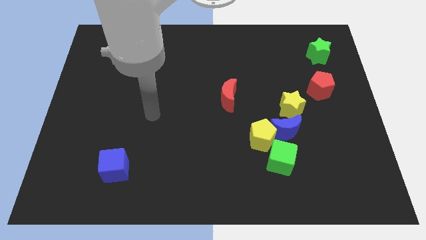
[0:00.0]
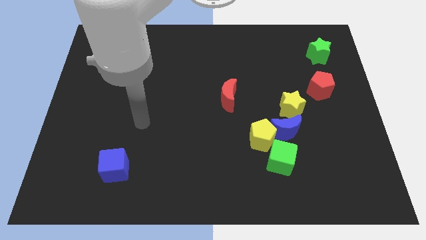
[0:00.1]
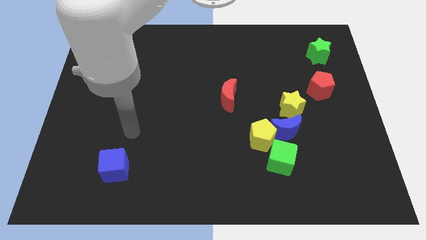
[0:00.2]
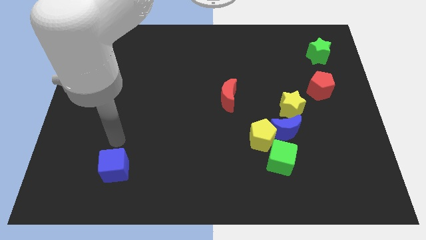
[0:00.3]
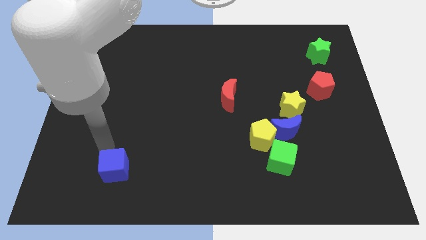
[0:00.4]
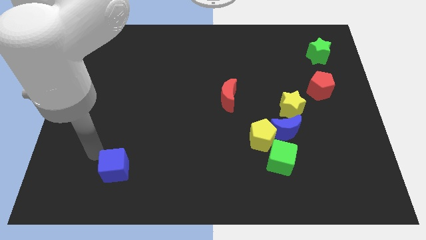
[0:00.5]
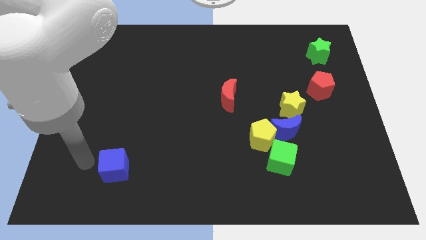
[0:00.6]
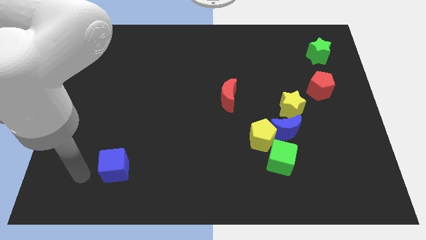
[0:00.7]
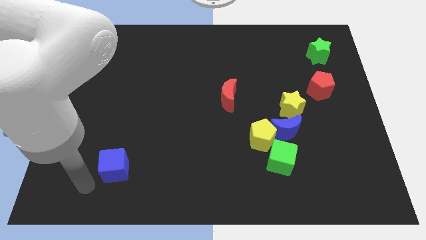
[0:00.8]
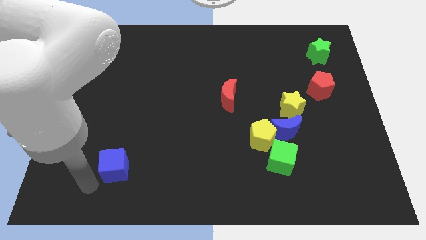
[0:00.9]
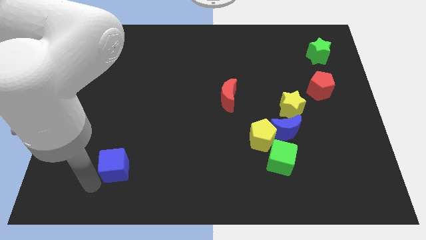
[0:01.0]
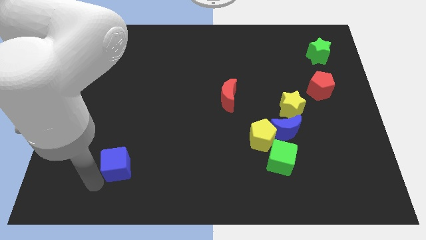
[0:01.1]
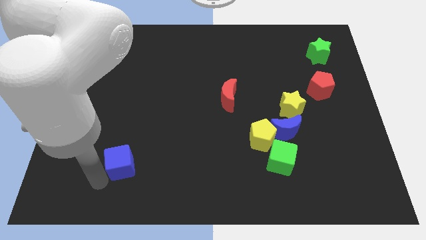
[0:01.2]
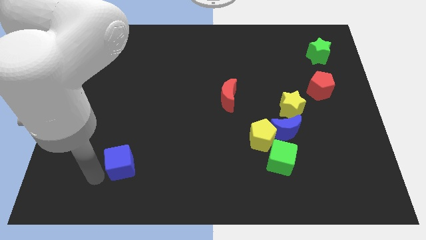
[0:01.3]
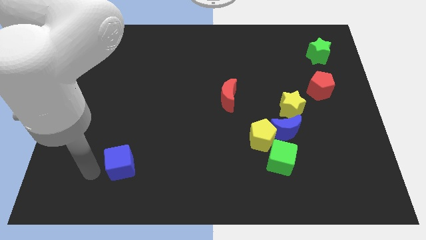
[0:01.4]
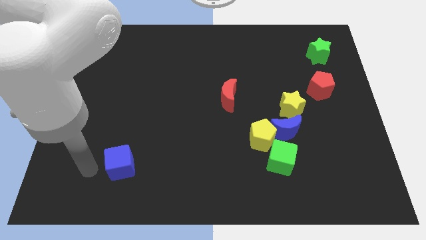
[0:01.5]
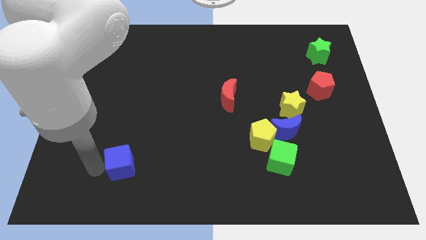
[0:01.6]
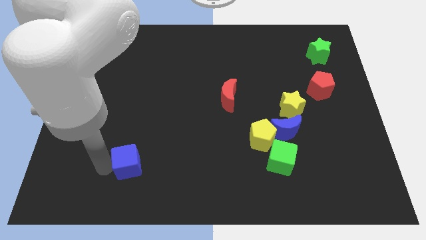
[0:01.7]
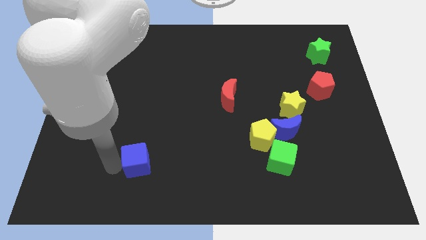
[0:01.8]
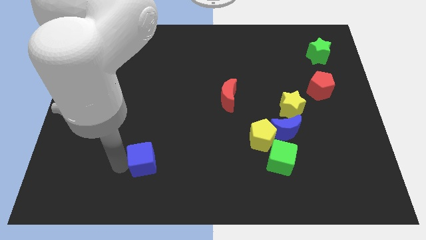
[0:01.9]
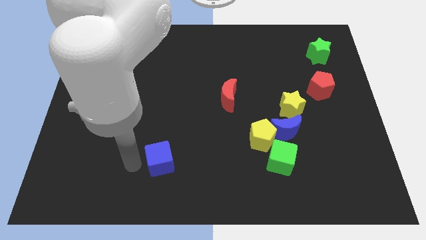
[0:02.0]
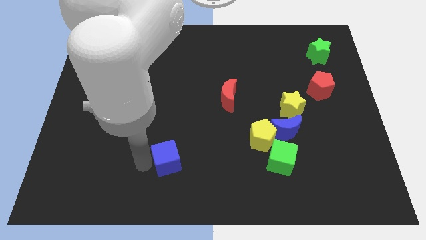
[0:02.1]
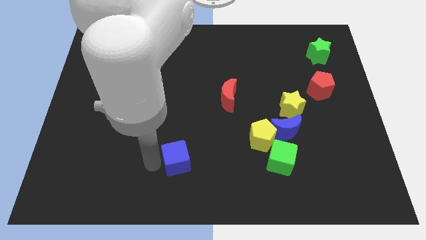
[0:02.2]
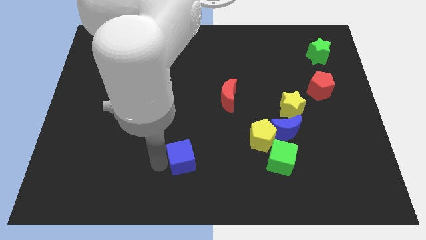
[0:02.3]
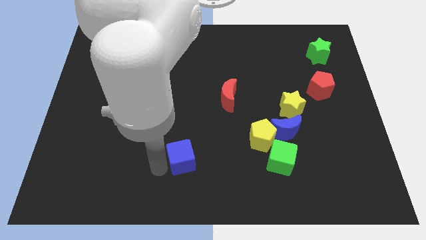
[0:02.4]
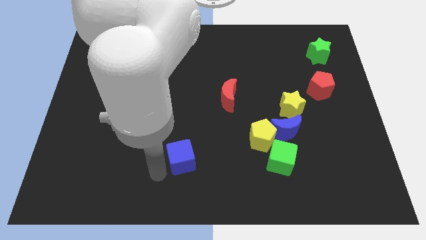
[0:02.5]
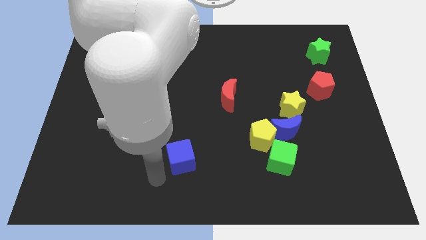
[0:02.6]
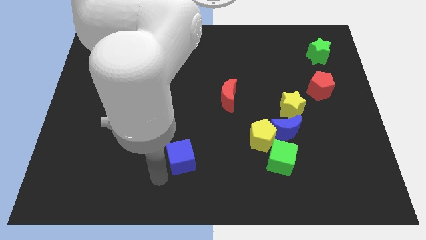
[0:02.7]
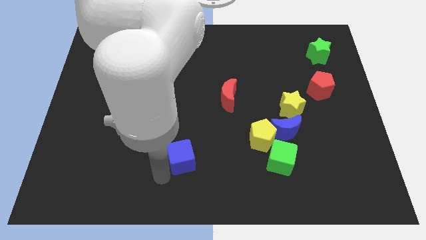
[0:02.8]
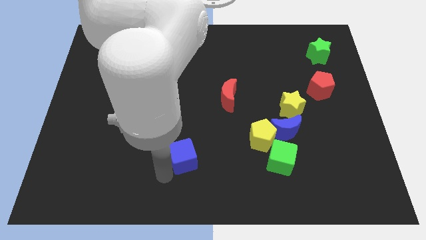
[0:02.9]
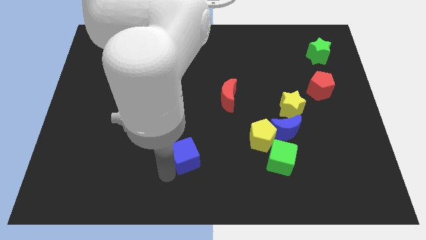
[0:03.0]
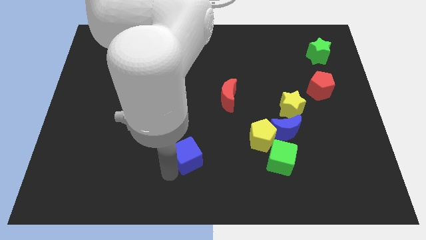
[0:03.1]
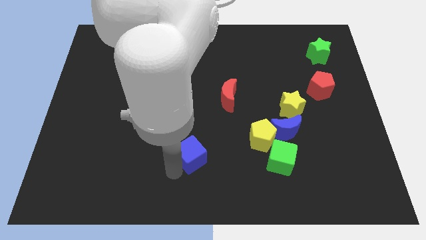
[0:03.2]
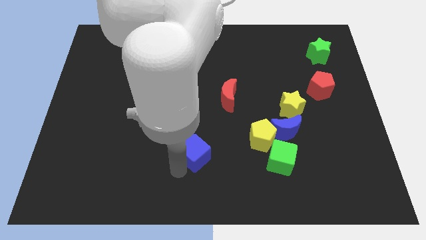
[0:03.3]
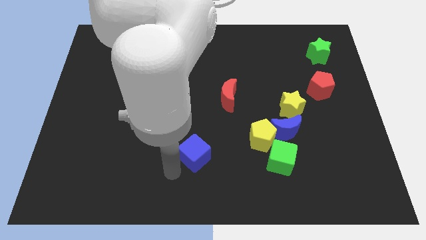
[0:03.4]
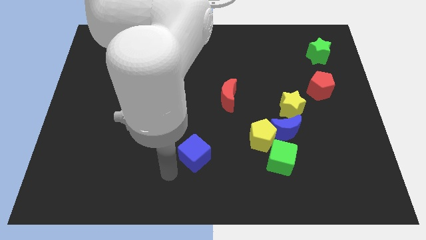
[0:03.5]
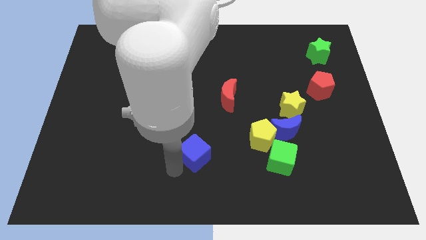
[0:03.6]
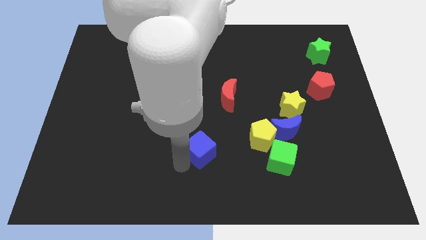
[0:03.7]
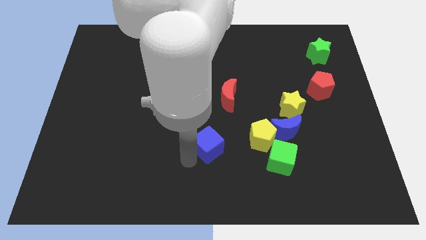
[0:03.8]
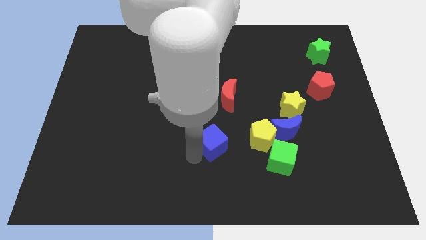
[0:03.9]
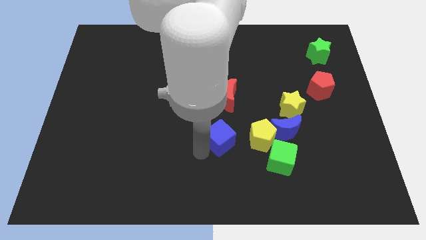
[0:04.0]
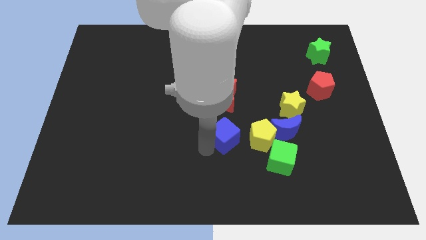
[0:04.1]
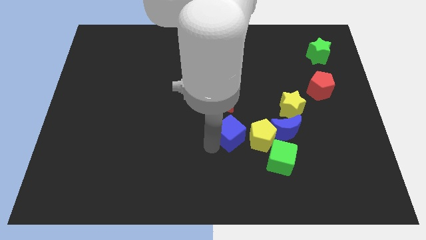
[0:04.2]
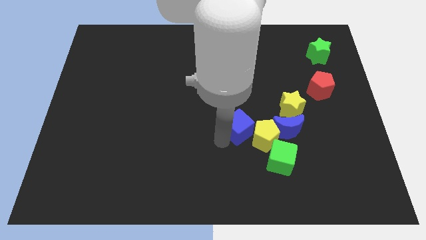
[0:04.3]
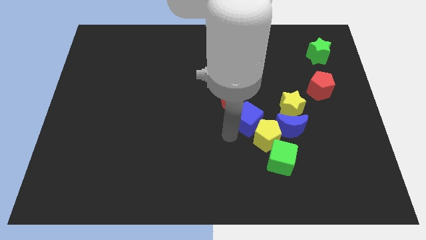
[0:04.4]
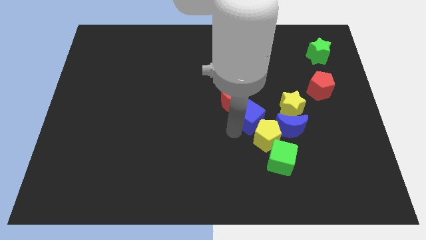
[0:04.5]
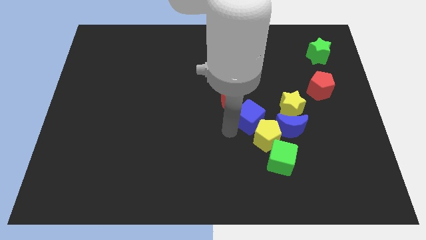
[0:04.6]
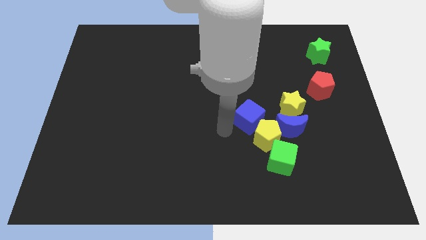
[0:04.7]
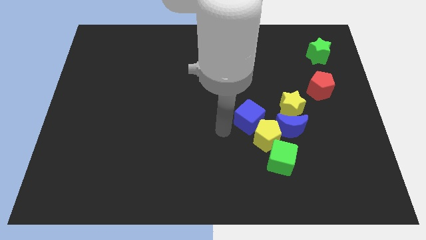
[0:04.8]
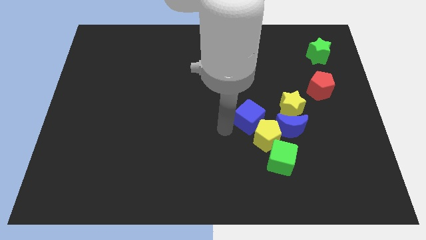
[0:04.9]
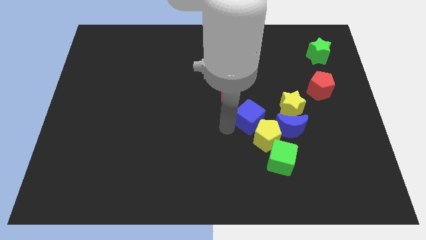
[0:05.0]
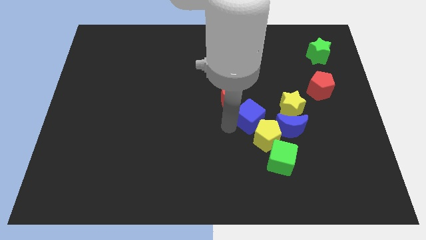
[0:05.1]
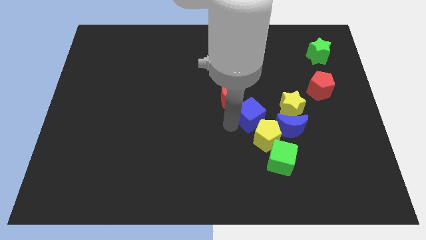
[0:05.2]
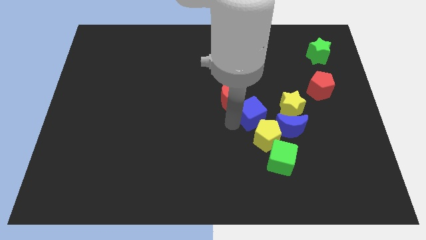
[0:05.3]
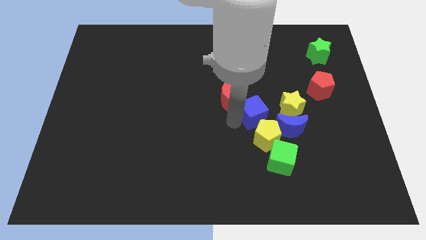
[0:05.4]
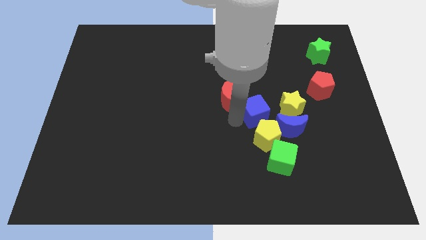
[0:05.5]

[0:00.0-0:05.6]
move the blue cube right of the red moon

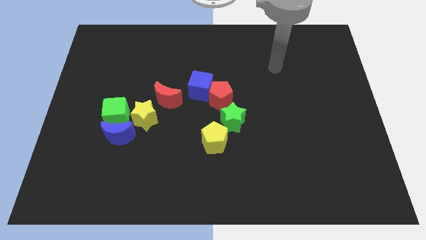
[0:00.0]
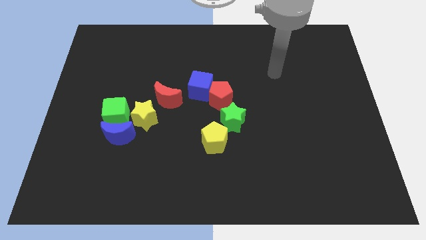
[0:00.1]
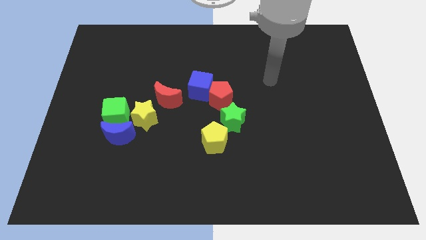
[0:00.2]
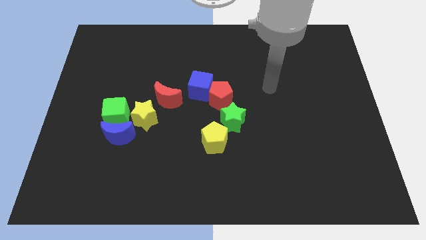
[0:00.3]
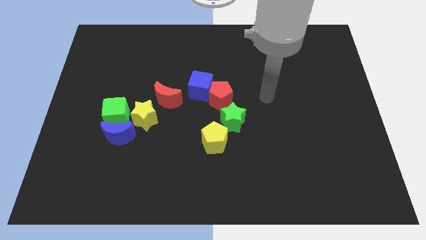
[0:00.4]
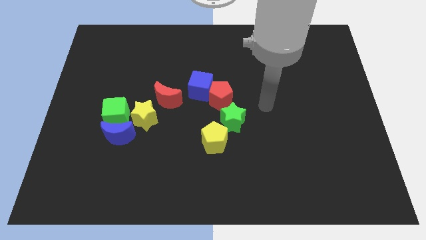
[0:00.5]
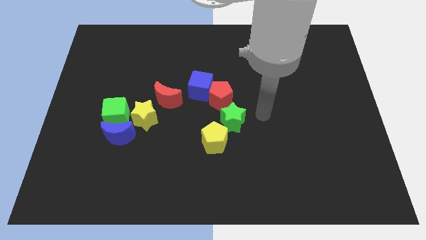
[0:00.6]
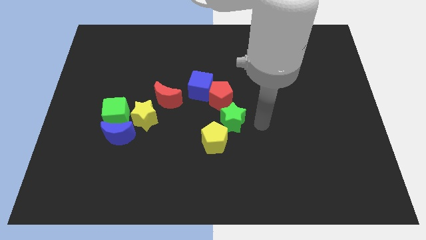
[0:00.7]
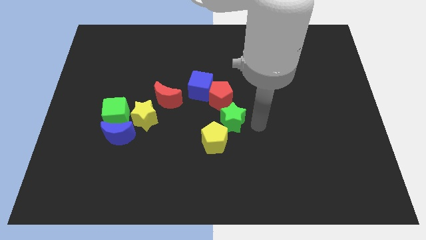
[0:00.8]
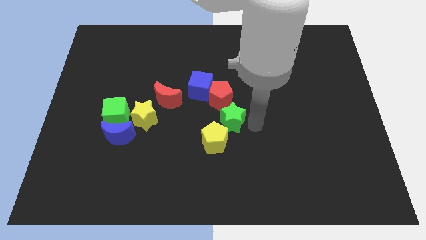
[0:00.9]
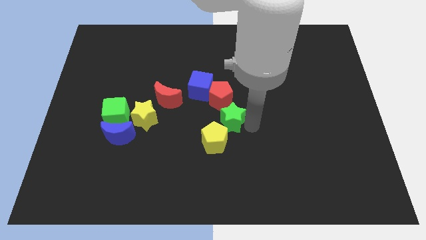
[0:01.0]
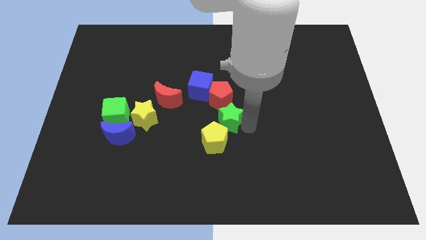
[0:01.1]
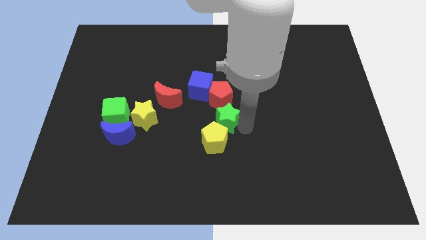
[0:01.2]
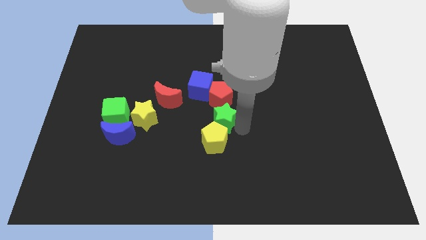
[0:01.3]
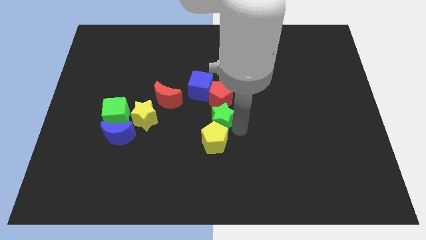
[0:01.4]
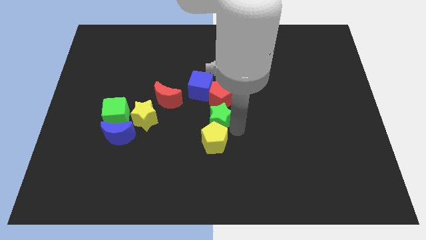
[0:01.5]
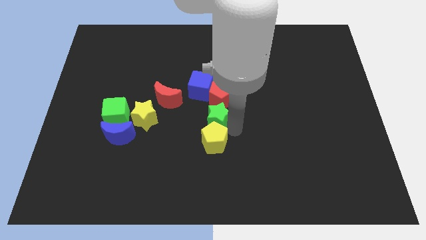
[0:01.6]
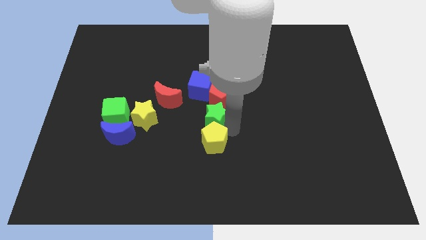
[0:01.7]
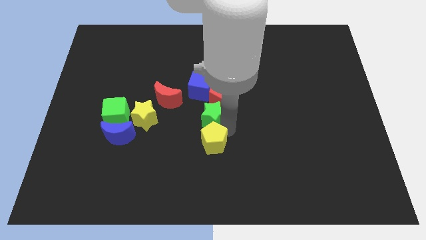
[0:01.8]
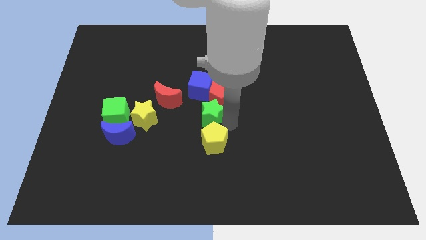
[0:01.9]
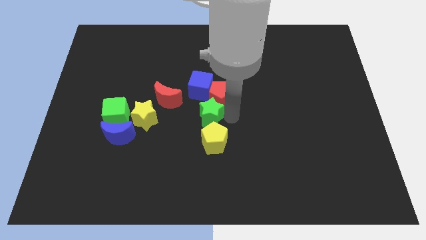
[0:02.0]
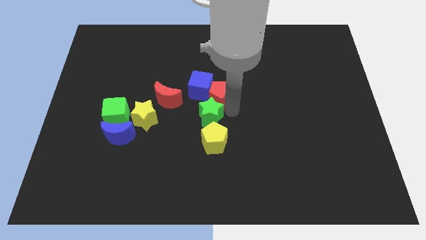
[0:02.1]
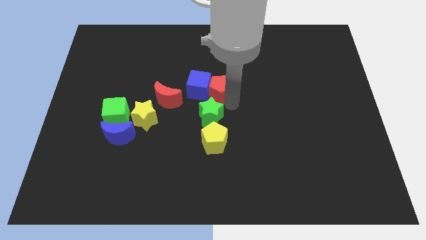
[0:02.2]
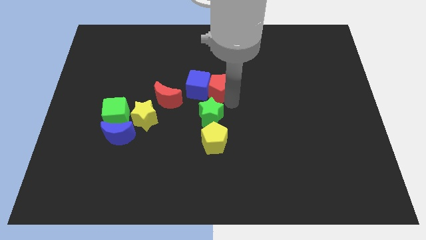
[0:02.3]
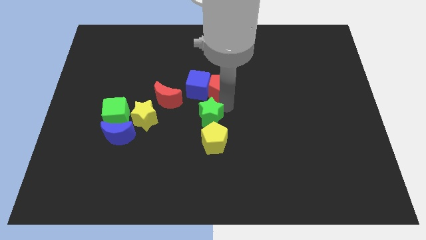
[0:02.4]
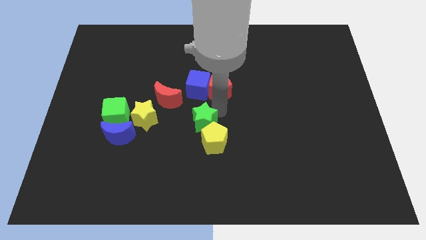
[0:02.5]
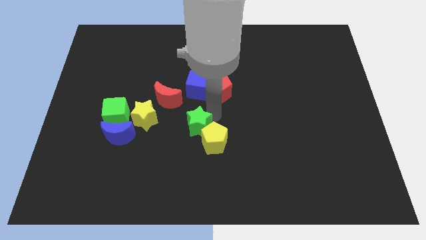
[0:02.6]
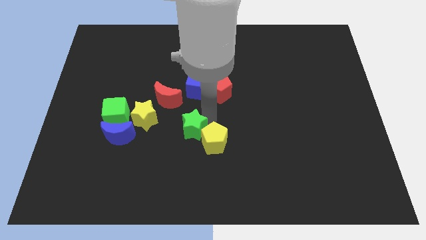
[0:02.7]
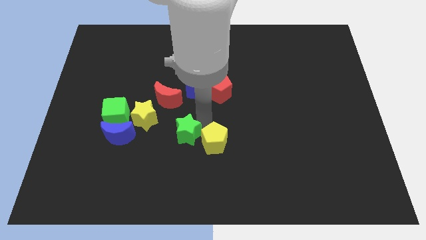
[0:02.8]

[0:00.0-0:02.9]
move the green star to the bottom right side of the yellow star
